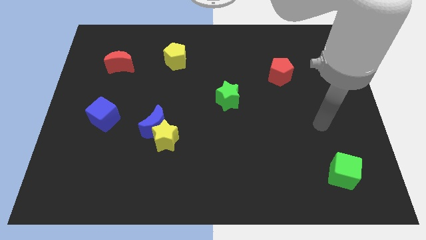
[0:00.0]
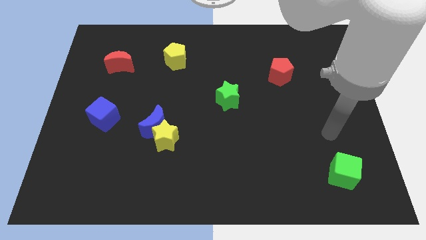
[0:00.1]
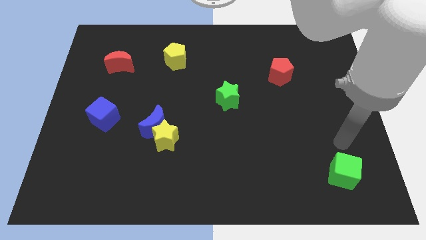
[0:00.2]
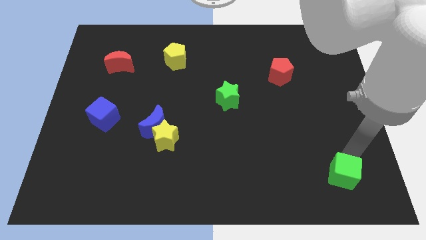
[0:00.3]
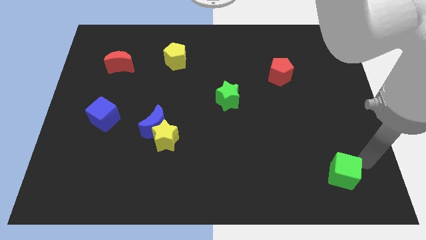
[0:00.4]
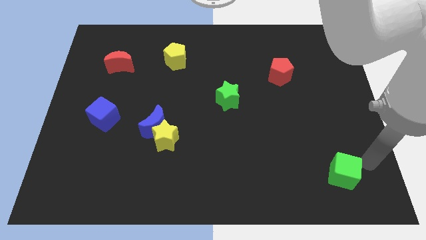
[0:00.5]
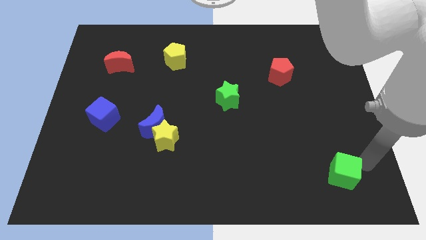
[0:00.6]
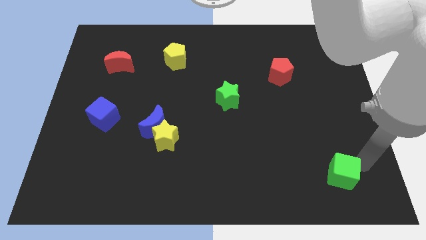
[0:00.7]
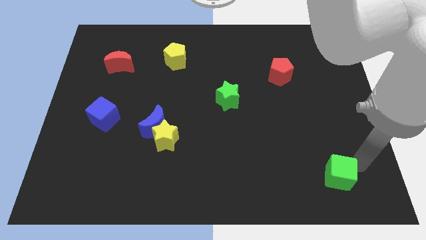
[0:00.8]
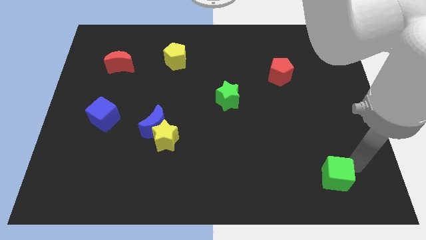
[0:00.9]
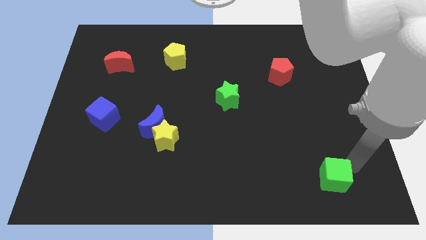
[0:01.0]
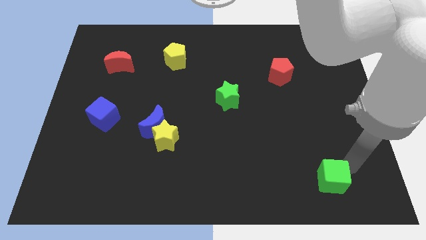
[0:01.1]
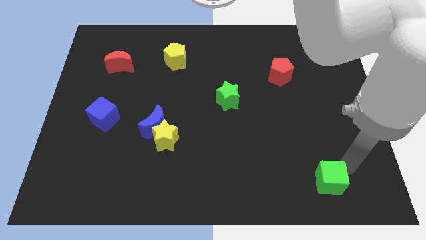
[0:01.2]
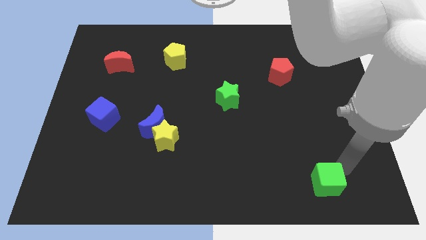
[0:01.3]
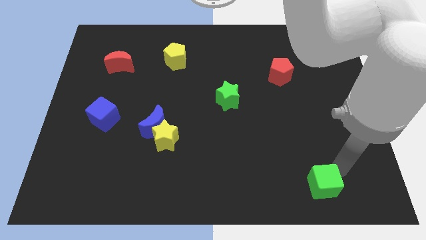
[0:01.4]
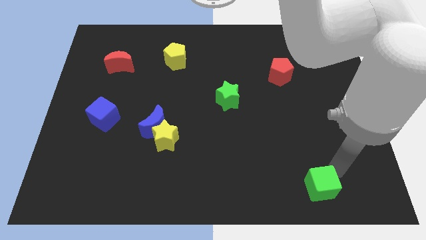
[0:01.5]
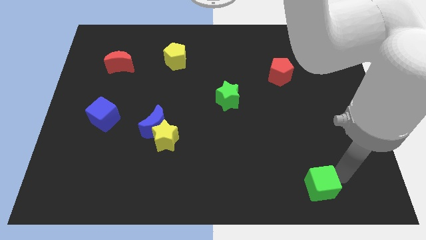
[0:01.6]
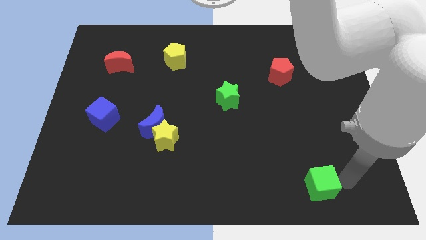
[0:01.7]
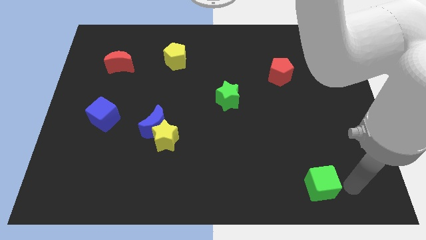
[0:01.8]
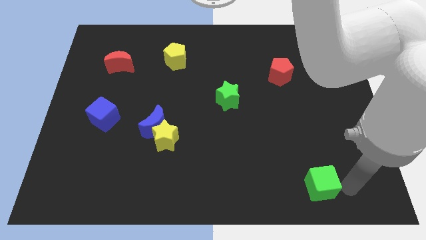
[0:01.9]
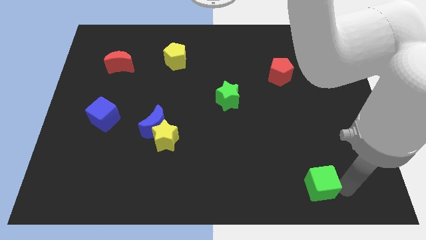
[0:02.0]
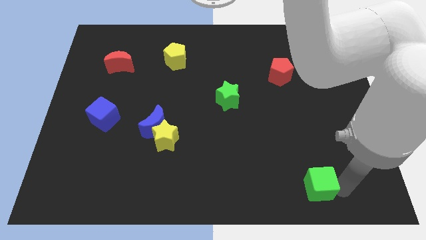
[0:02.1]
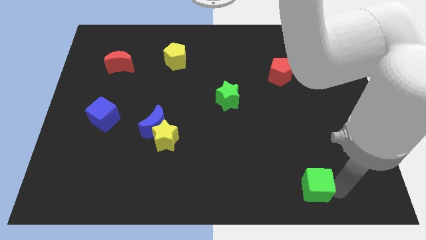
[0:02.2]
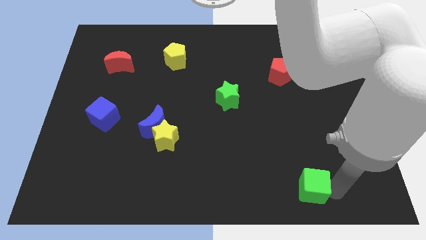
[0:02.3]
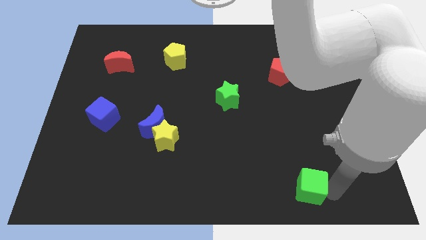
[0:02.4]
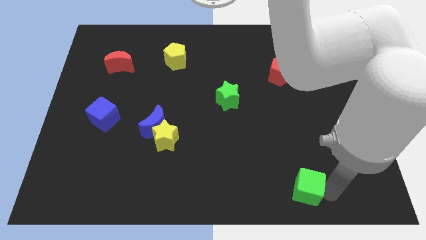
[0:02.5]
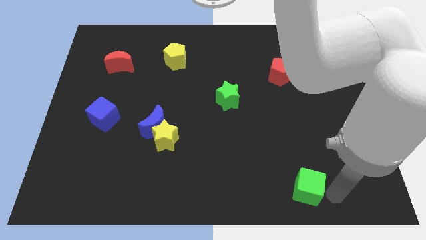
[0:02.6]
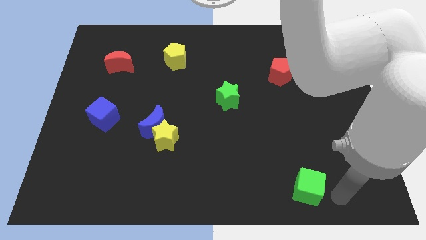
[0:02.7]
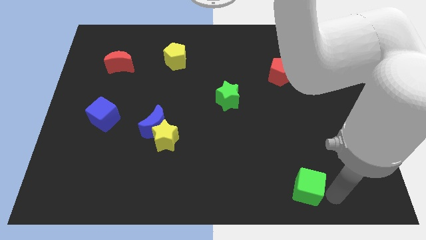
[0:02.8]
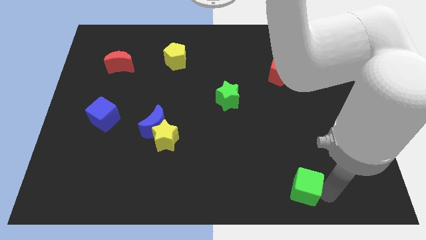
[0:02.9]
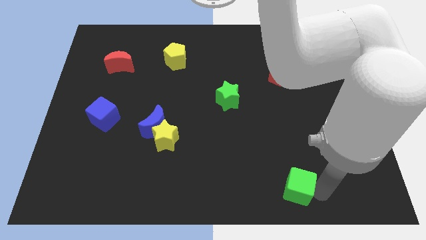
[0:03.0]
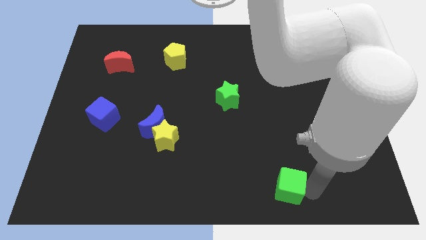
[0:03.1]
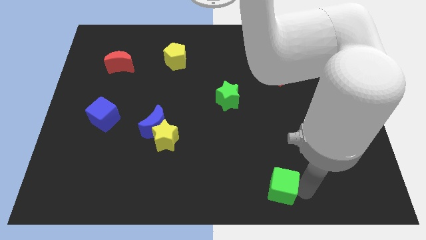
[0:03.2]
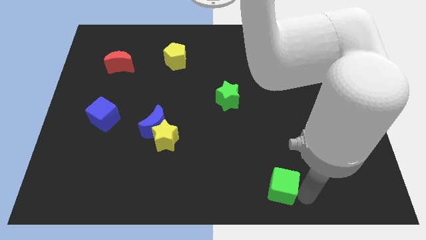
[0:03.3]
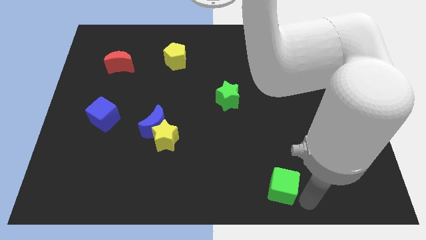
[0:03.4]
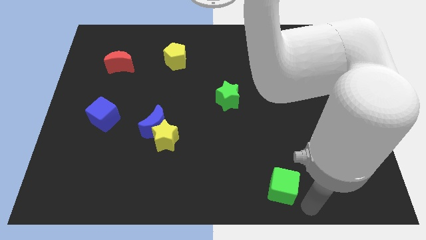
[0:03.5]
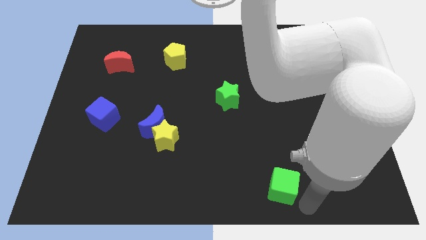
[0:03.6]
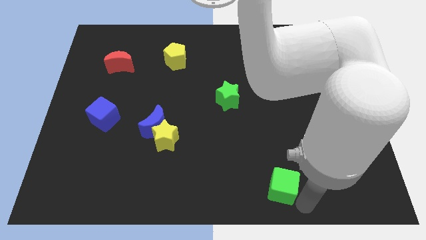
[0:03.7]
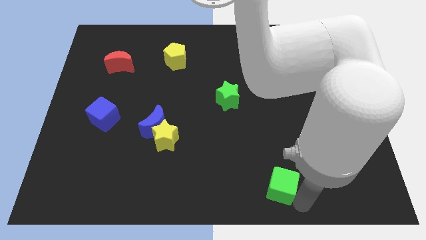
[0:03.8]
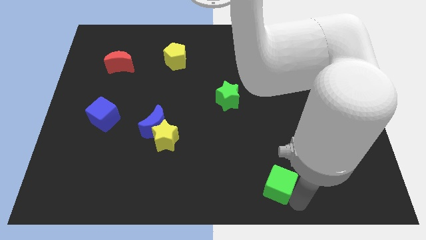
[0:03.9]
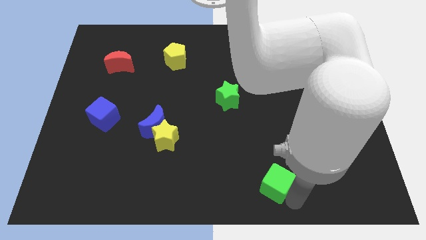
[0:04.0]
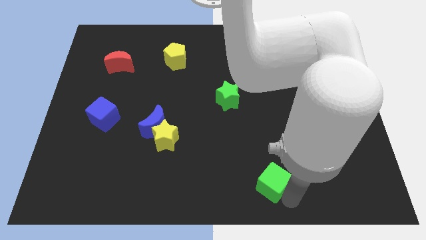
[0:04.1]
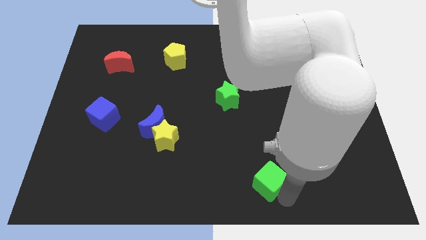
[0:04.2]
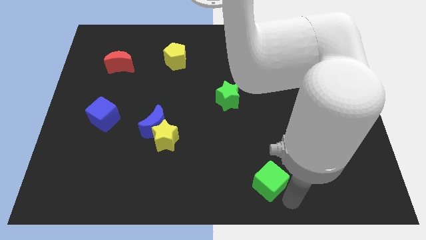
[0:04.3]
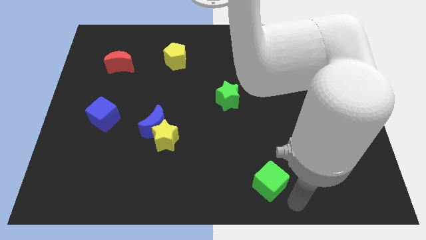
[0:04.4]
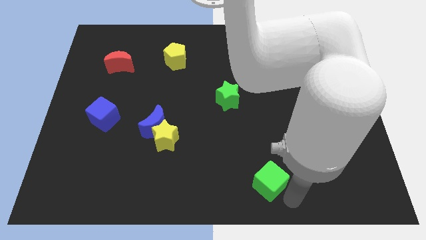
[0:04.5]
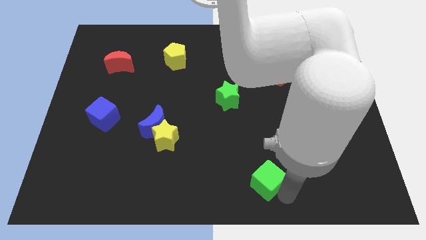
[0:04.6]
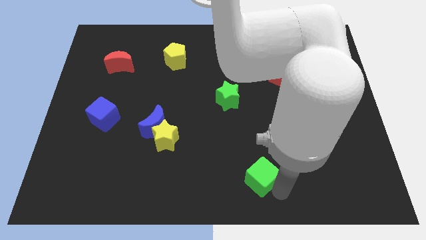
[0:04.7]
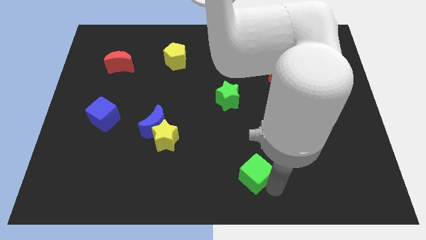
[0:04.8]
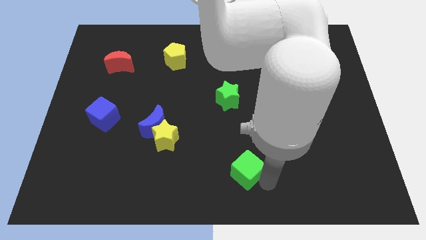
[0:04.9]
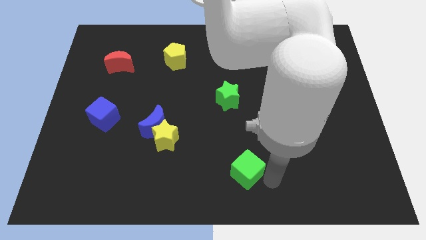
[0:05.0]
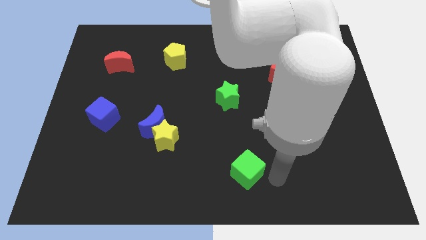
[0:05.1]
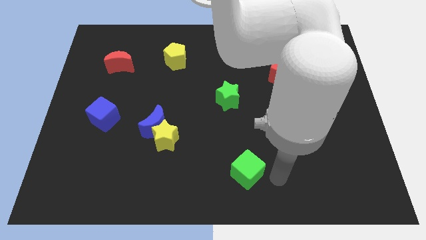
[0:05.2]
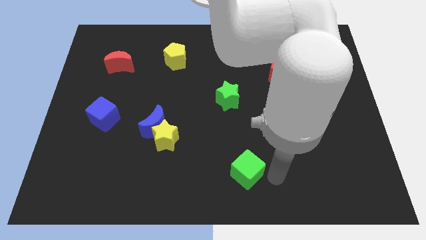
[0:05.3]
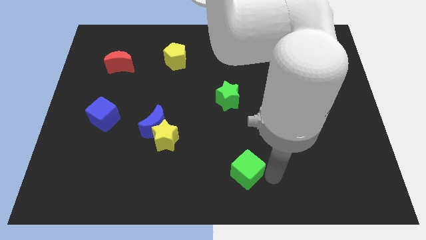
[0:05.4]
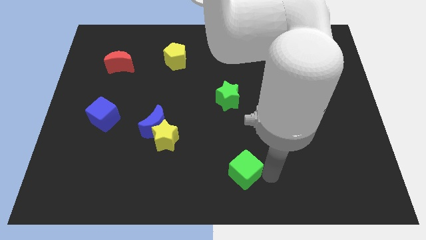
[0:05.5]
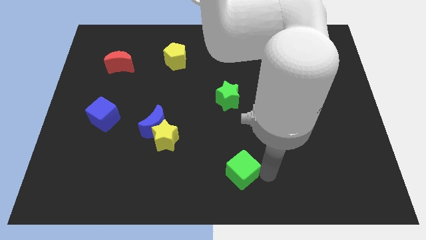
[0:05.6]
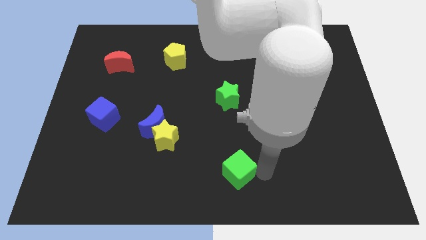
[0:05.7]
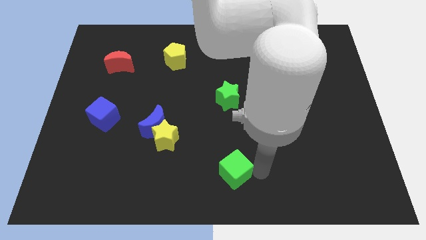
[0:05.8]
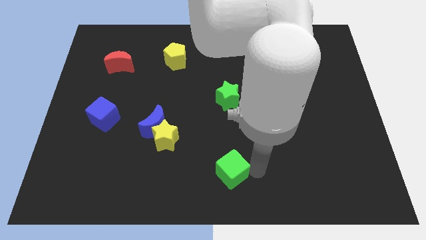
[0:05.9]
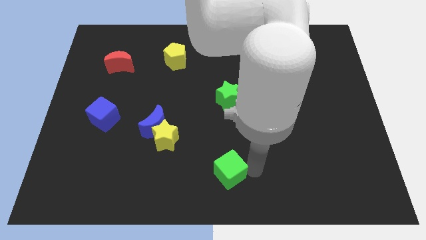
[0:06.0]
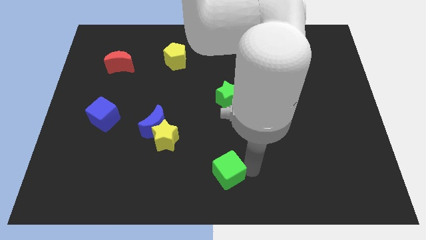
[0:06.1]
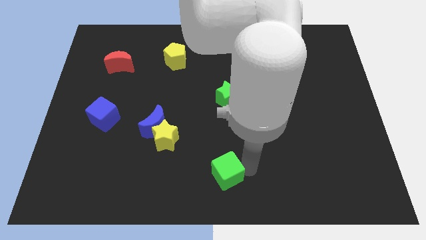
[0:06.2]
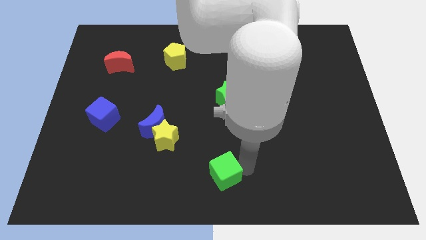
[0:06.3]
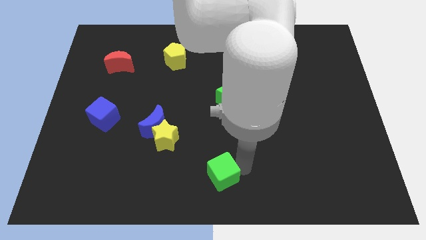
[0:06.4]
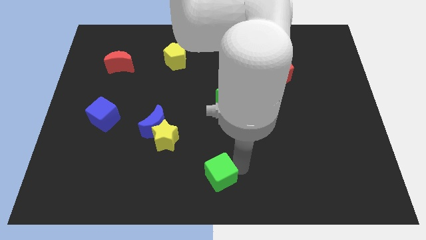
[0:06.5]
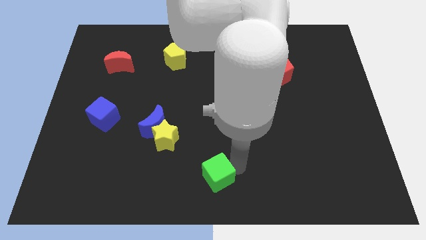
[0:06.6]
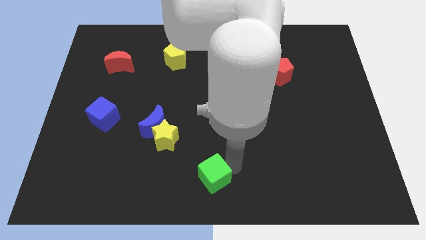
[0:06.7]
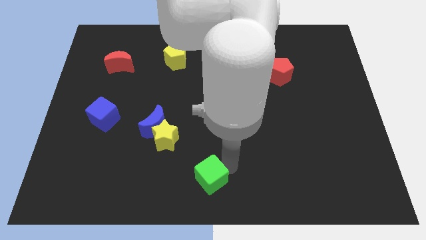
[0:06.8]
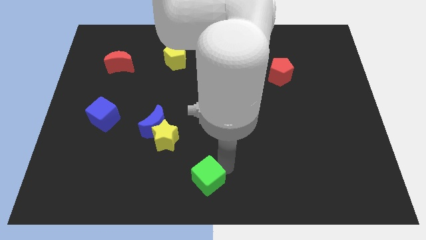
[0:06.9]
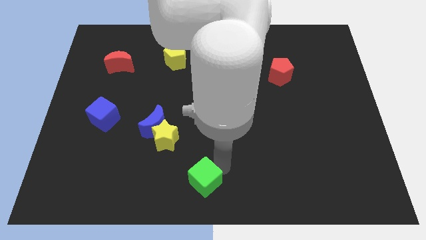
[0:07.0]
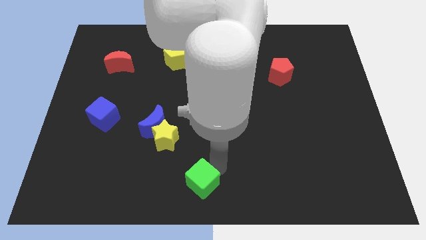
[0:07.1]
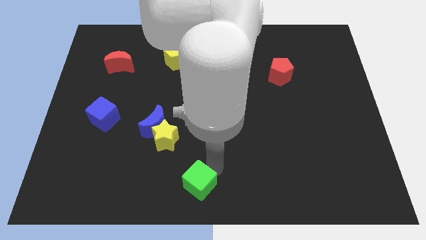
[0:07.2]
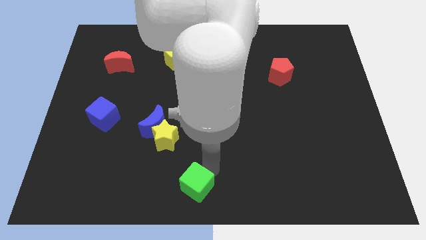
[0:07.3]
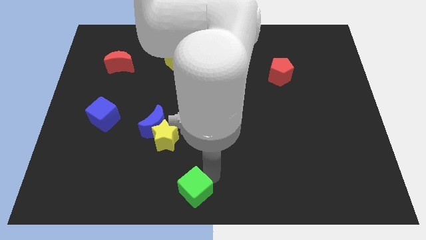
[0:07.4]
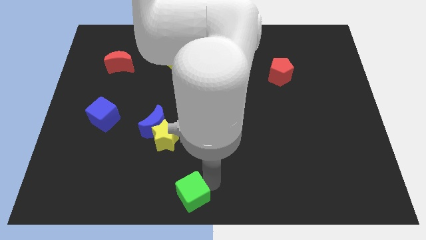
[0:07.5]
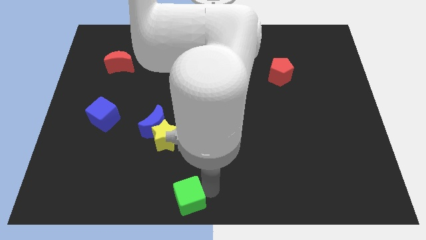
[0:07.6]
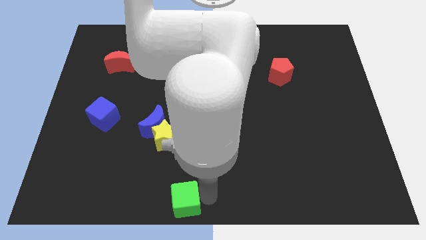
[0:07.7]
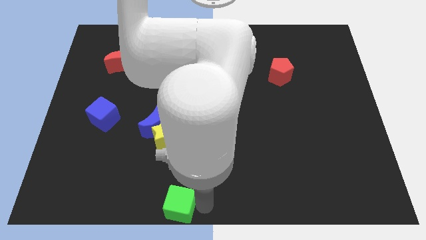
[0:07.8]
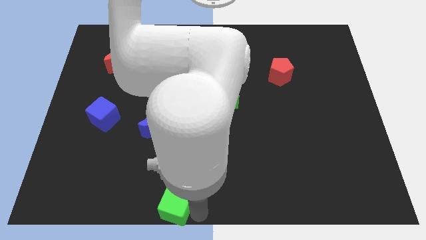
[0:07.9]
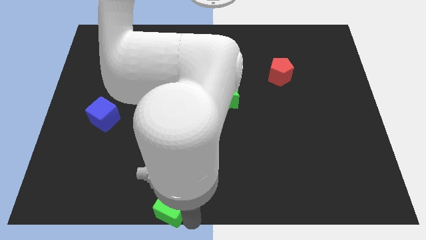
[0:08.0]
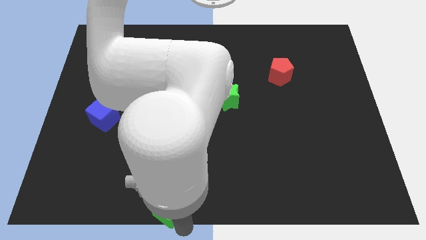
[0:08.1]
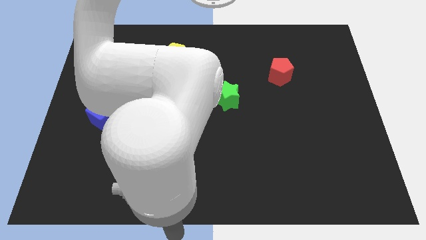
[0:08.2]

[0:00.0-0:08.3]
put the green cube to the bottom of the yellow star
